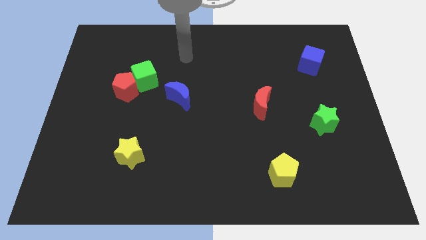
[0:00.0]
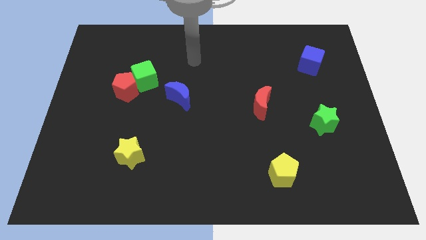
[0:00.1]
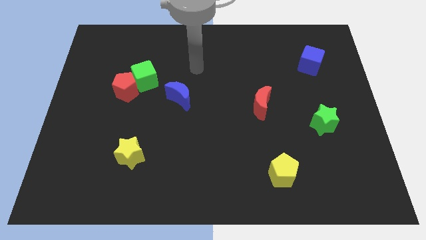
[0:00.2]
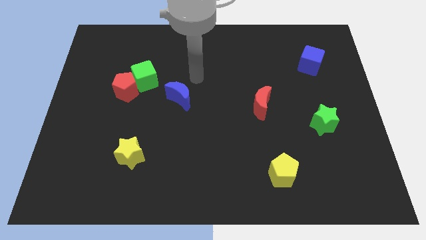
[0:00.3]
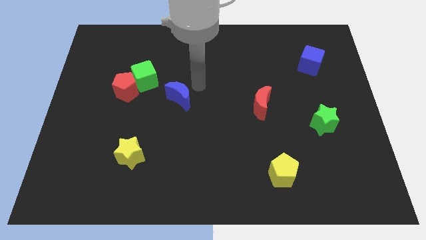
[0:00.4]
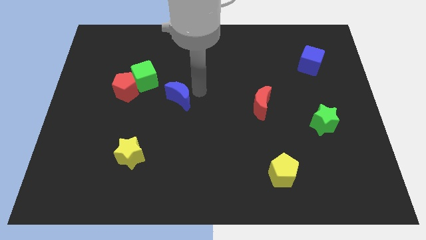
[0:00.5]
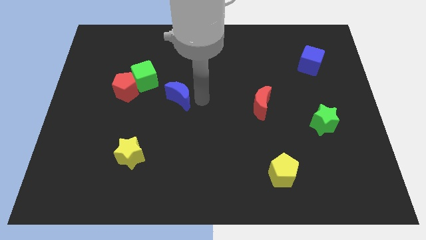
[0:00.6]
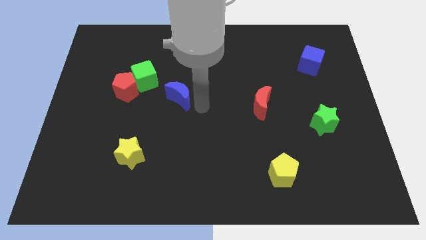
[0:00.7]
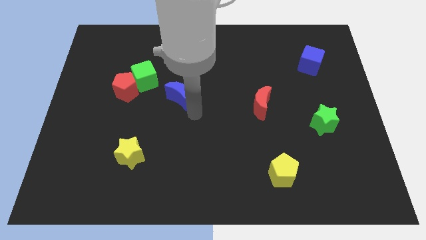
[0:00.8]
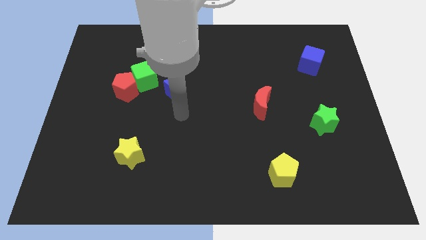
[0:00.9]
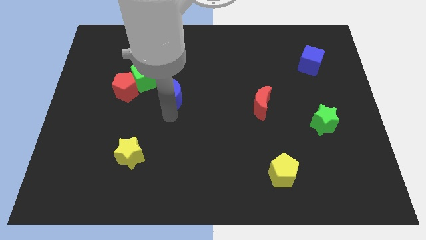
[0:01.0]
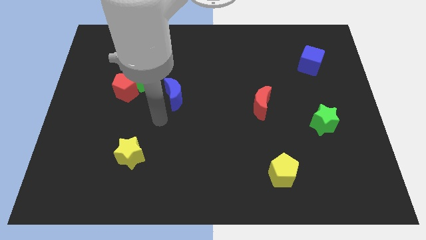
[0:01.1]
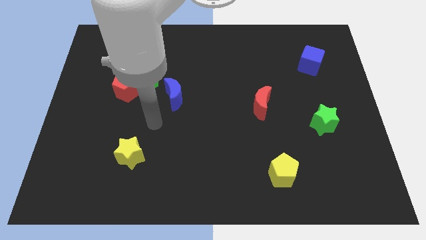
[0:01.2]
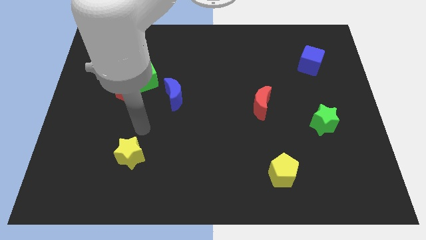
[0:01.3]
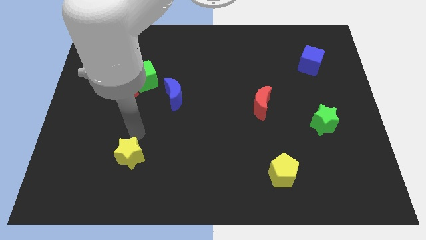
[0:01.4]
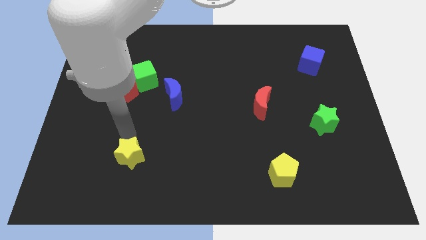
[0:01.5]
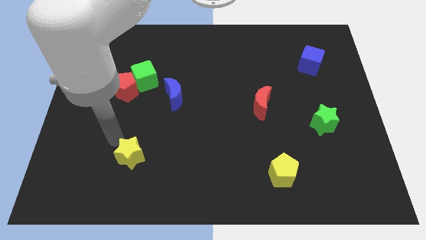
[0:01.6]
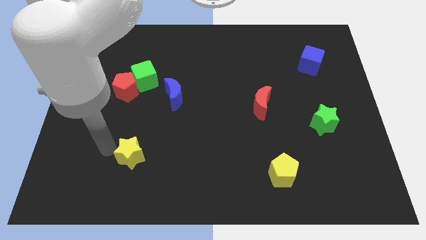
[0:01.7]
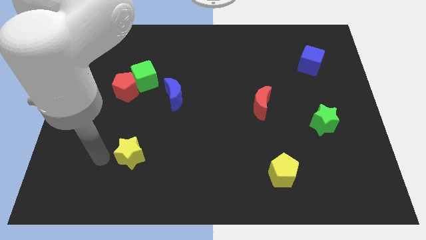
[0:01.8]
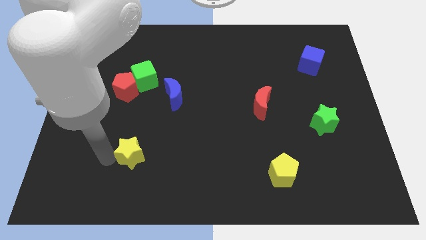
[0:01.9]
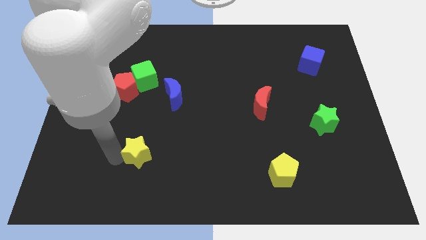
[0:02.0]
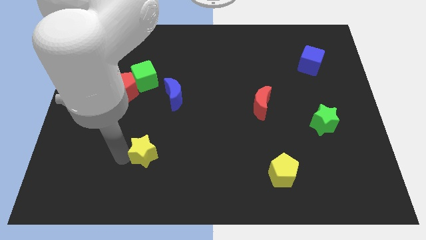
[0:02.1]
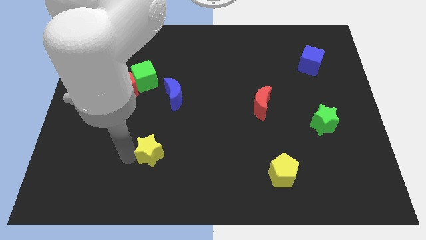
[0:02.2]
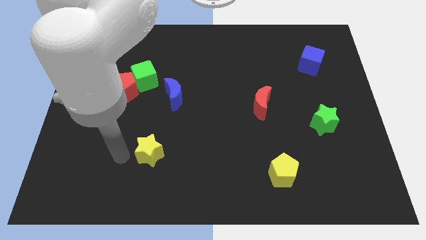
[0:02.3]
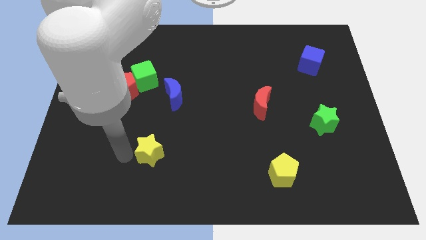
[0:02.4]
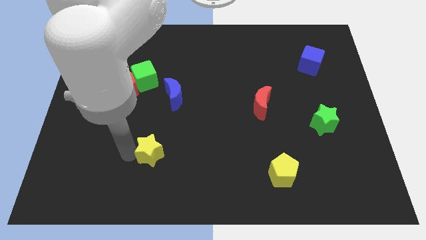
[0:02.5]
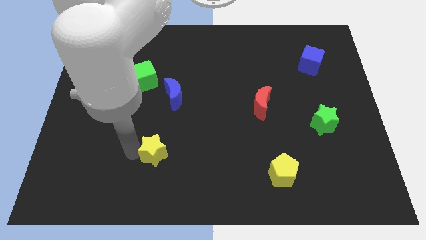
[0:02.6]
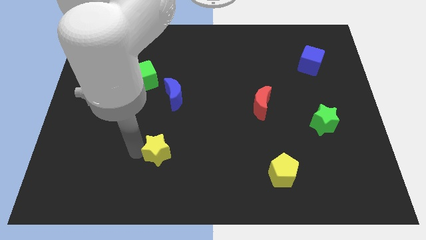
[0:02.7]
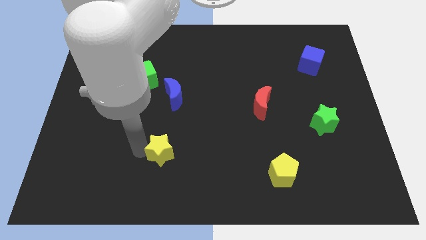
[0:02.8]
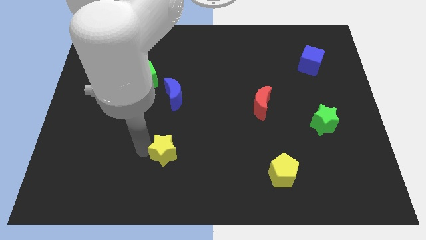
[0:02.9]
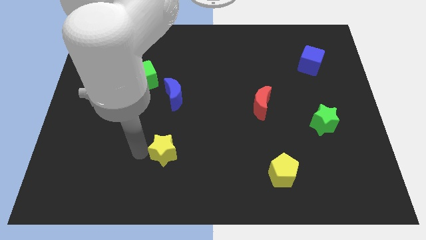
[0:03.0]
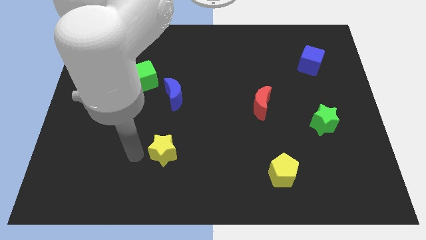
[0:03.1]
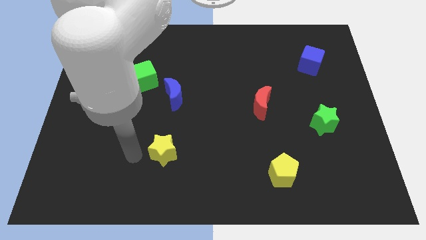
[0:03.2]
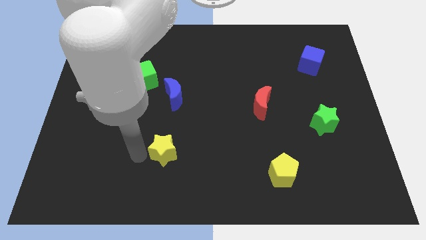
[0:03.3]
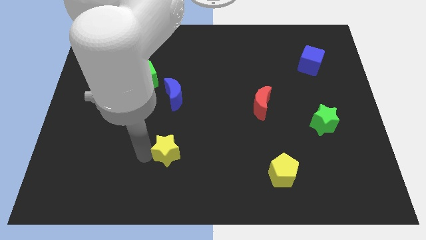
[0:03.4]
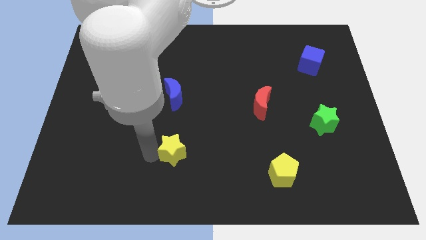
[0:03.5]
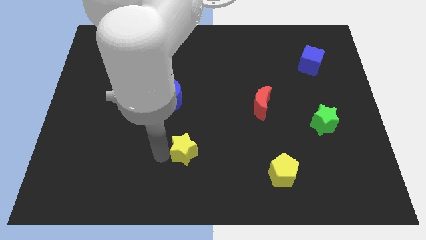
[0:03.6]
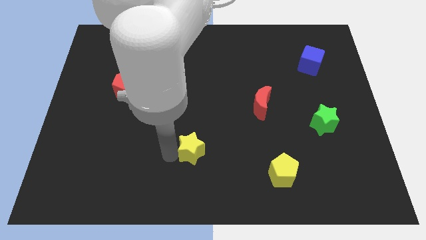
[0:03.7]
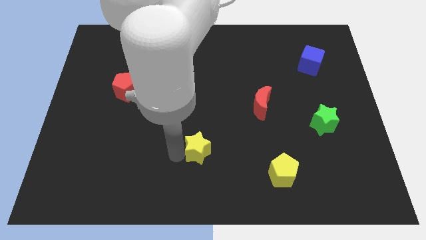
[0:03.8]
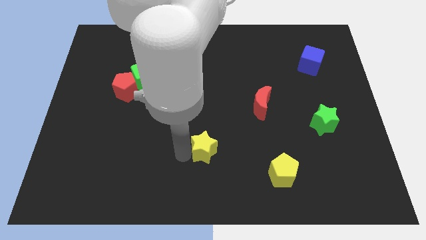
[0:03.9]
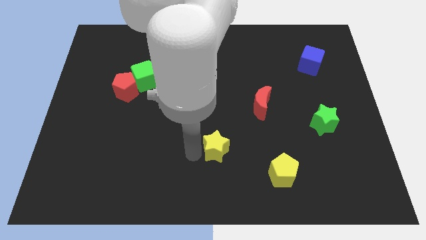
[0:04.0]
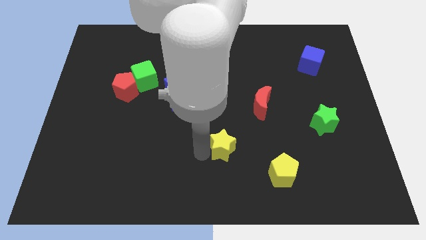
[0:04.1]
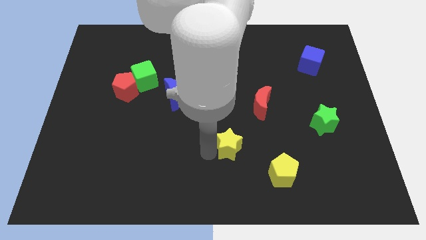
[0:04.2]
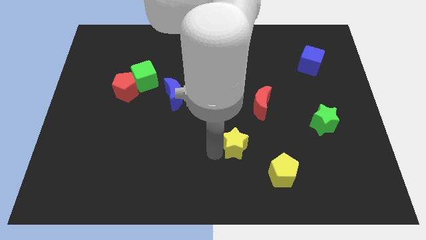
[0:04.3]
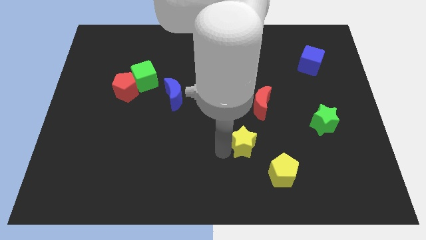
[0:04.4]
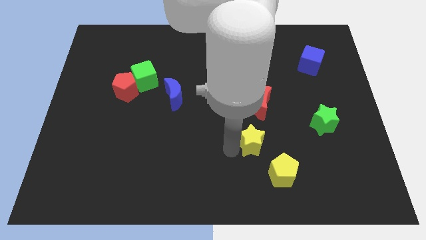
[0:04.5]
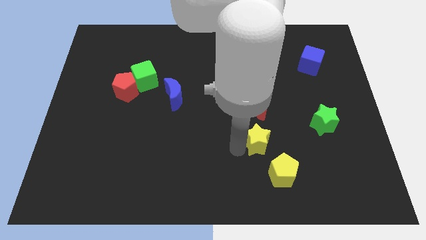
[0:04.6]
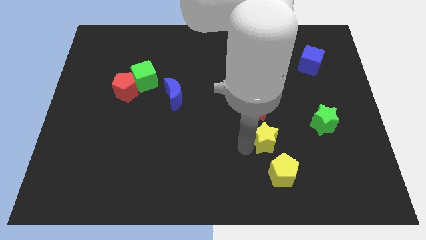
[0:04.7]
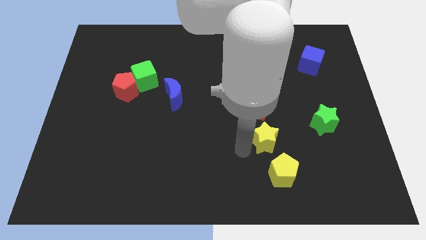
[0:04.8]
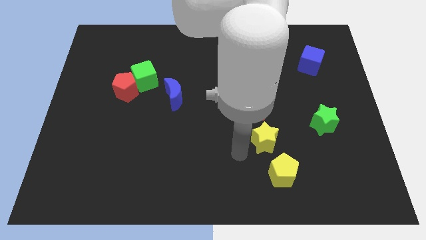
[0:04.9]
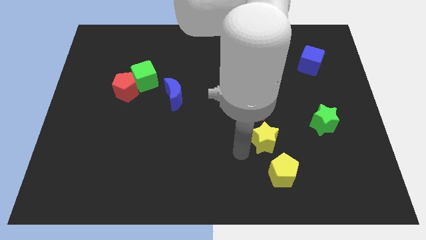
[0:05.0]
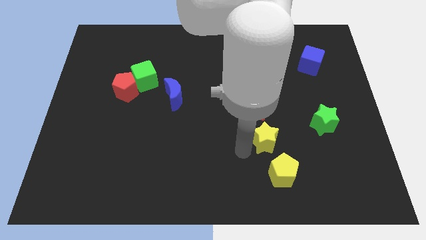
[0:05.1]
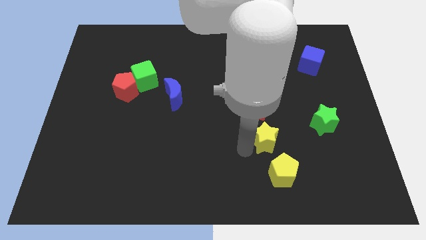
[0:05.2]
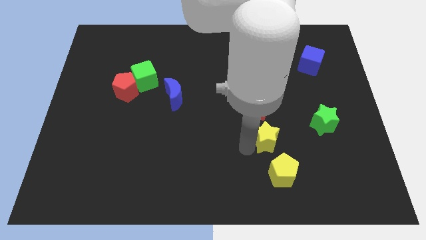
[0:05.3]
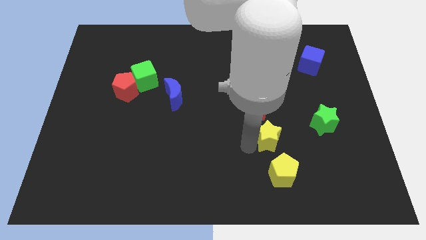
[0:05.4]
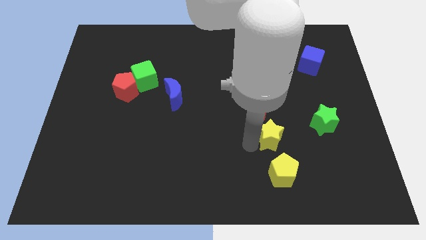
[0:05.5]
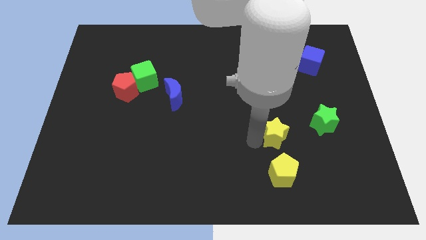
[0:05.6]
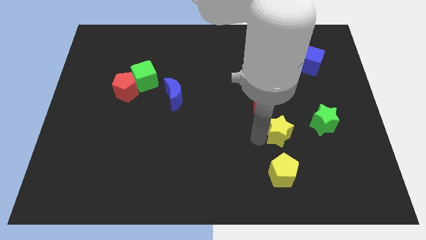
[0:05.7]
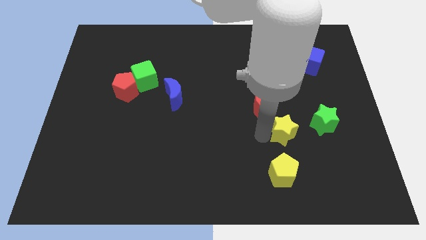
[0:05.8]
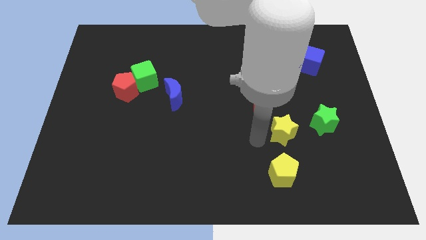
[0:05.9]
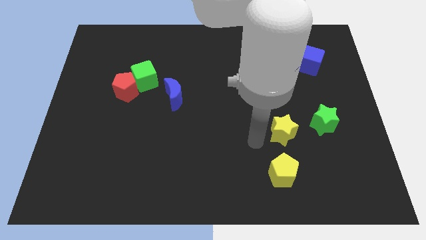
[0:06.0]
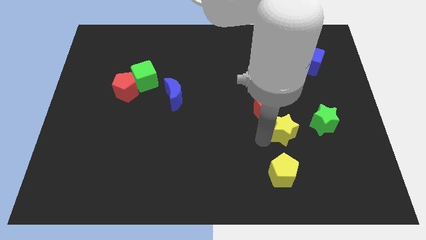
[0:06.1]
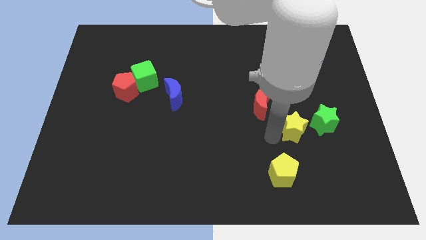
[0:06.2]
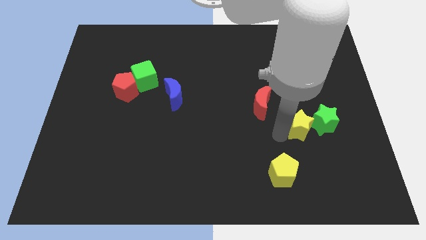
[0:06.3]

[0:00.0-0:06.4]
move the yellow star next to the green star
